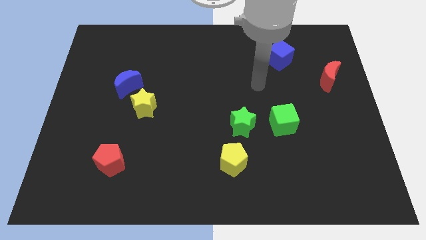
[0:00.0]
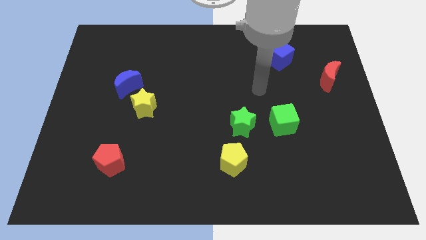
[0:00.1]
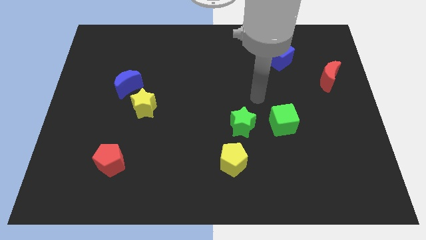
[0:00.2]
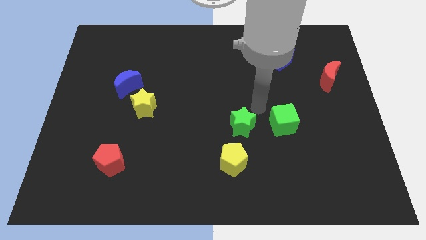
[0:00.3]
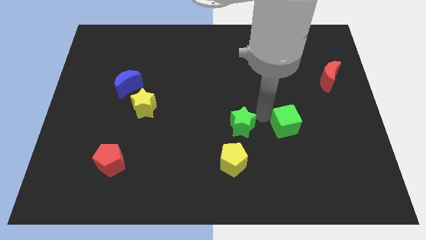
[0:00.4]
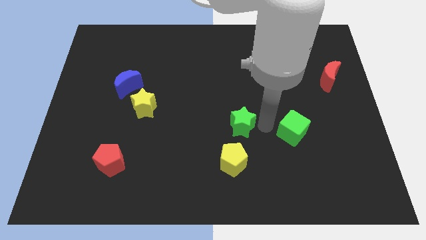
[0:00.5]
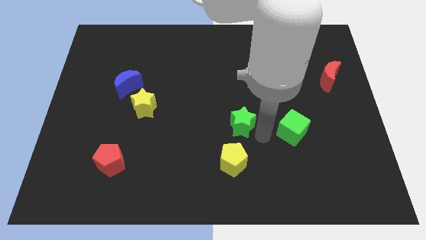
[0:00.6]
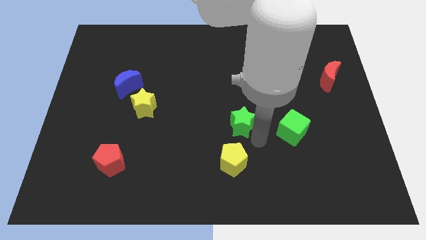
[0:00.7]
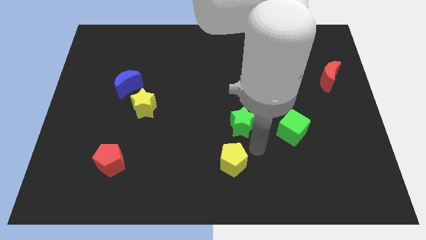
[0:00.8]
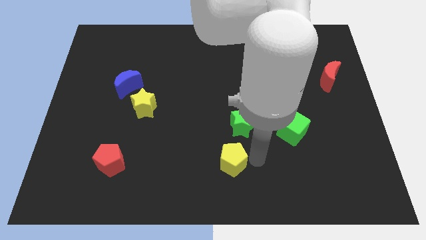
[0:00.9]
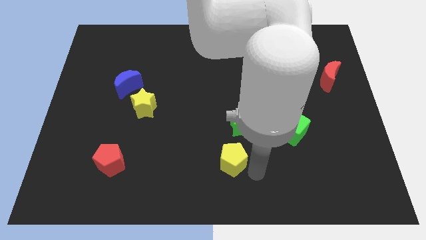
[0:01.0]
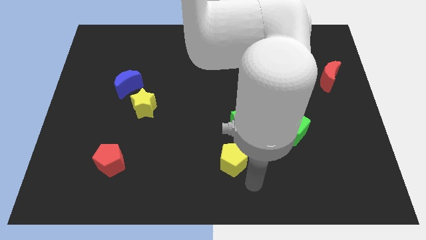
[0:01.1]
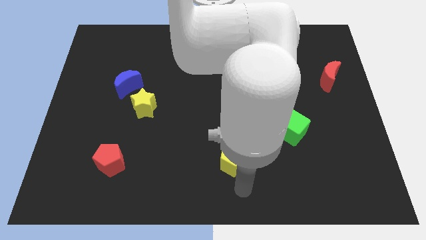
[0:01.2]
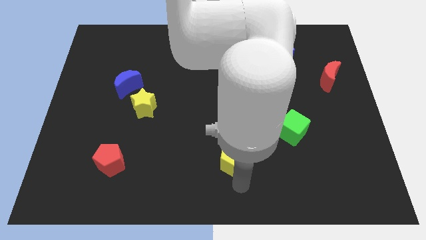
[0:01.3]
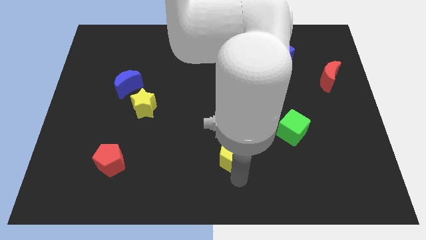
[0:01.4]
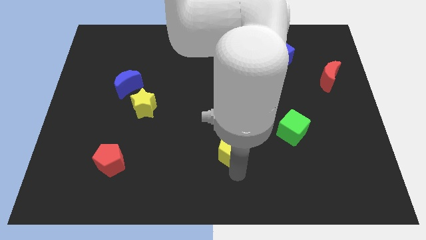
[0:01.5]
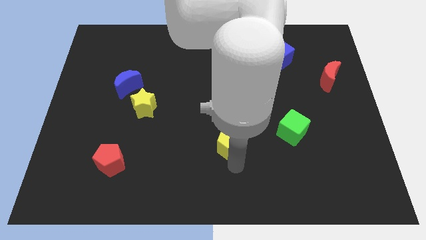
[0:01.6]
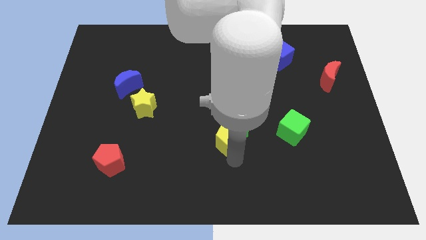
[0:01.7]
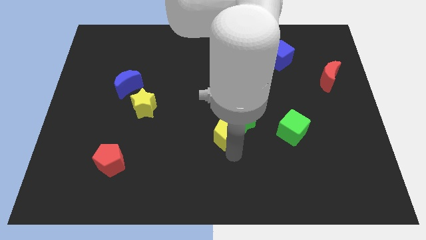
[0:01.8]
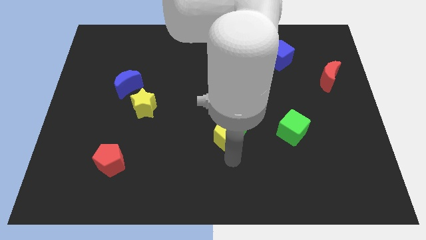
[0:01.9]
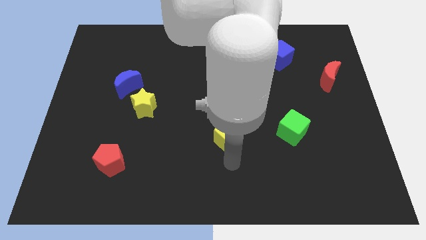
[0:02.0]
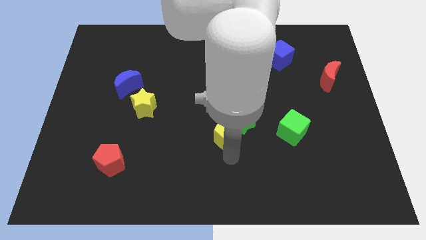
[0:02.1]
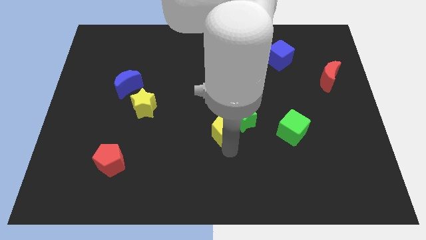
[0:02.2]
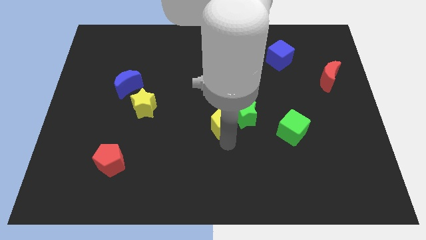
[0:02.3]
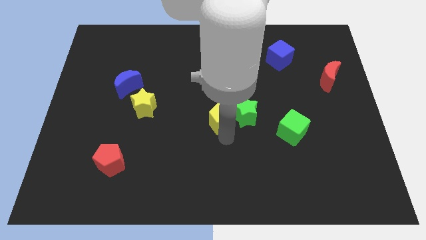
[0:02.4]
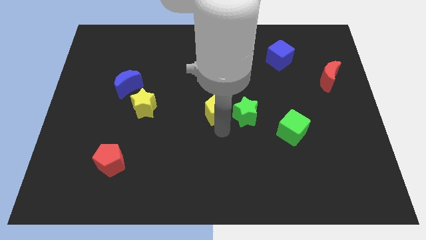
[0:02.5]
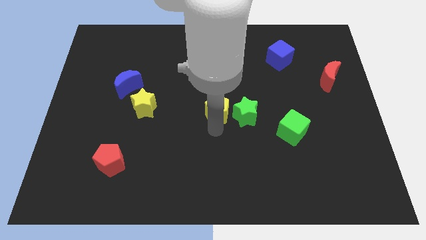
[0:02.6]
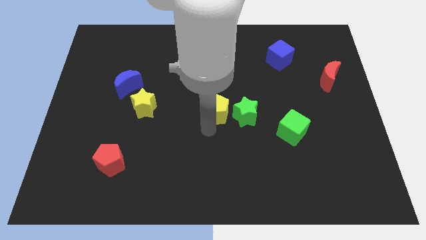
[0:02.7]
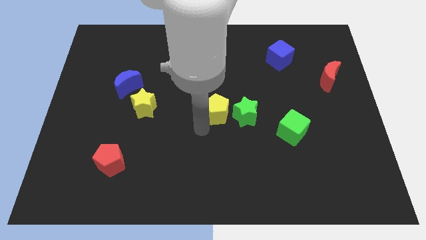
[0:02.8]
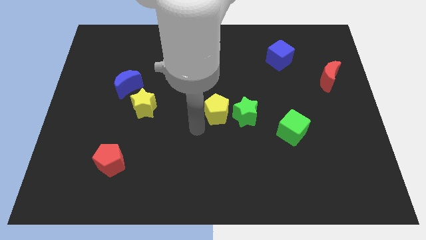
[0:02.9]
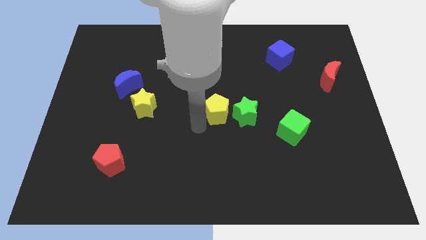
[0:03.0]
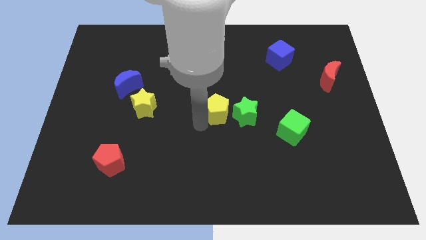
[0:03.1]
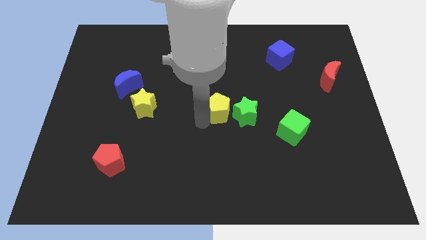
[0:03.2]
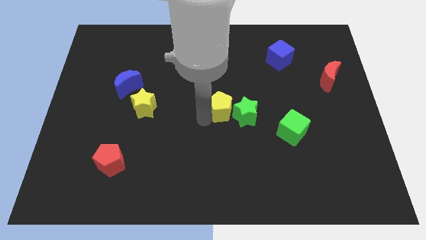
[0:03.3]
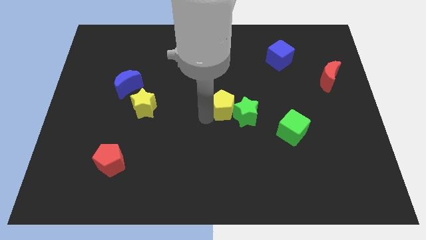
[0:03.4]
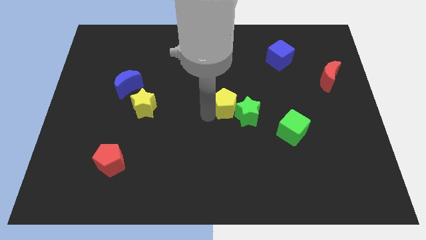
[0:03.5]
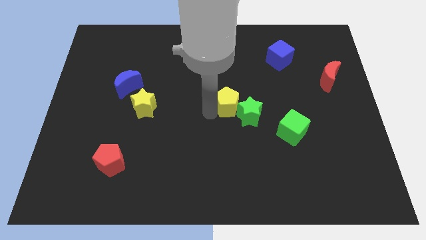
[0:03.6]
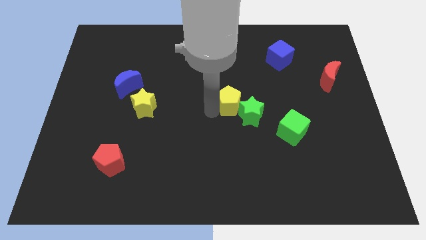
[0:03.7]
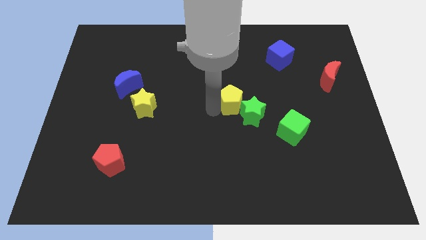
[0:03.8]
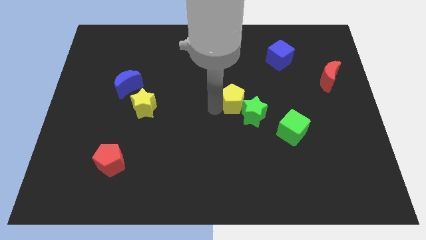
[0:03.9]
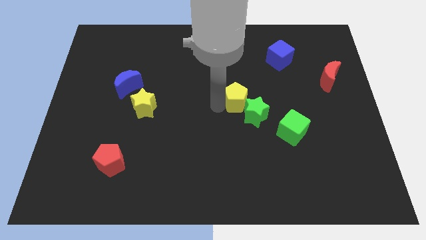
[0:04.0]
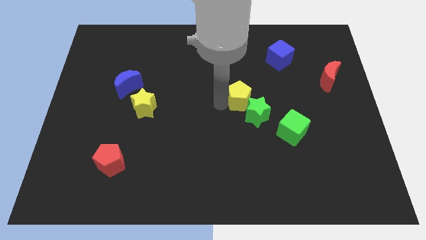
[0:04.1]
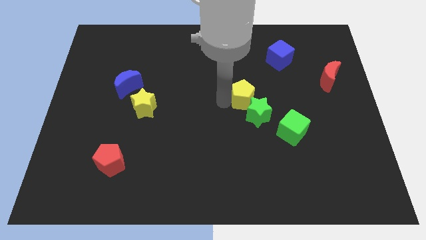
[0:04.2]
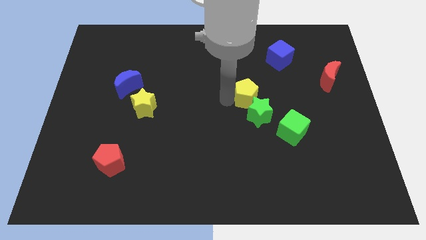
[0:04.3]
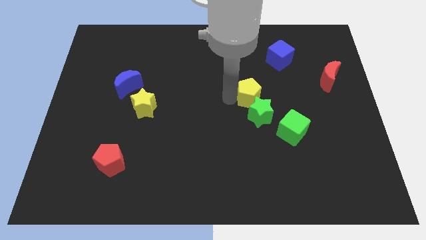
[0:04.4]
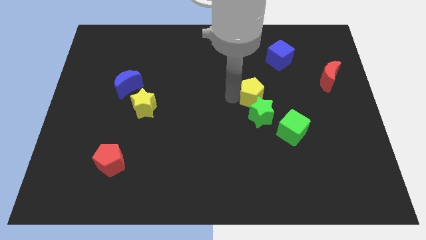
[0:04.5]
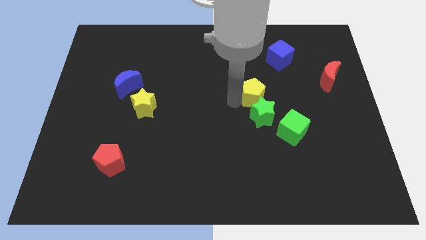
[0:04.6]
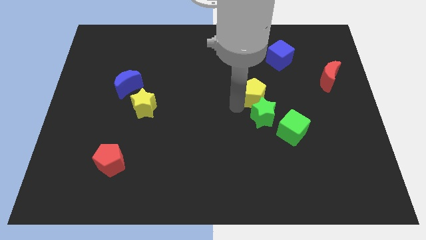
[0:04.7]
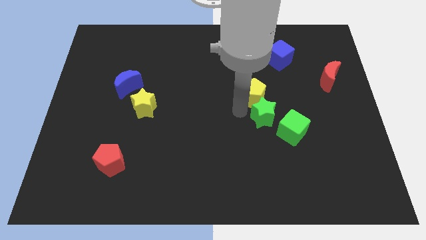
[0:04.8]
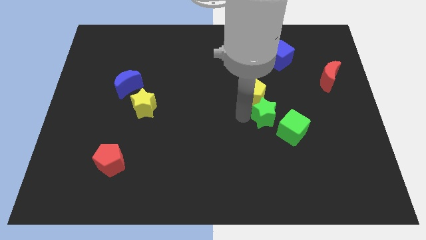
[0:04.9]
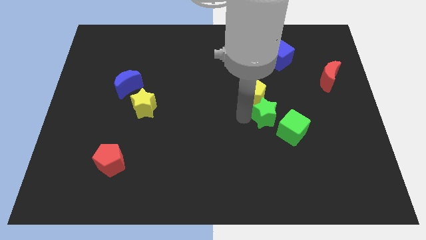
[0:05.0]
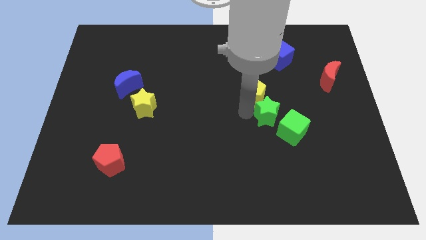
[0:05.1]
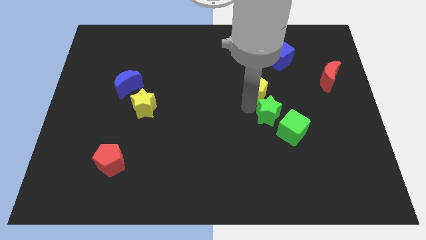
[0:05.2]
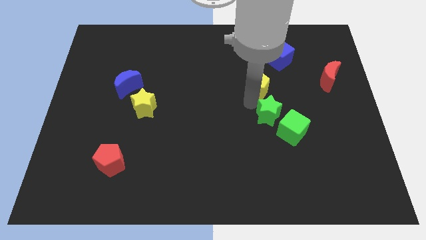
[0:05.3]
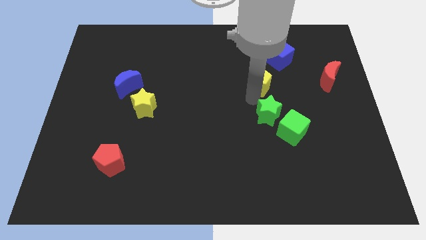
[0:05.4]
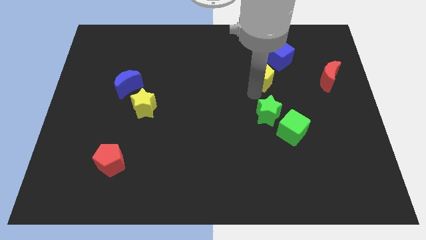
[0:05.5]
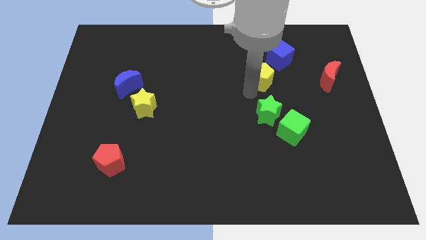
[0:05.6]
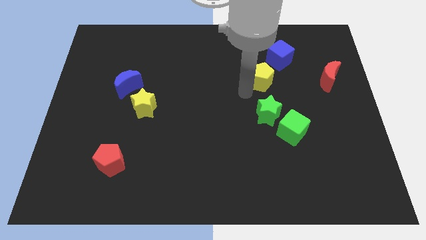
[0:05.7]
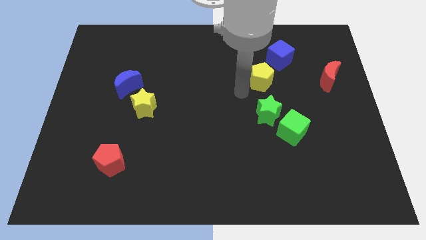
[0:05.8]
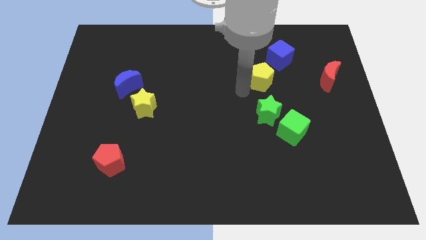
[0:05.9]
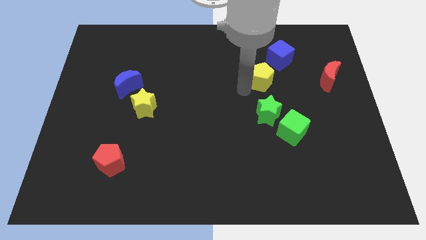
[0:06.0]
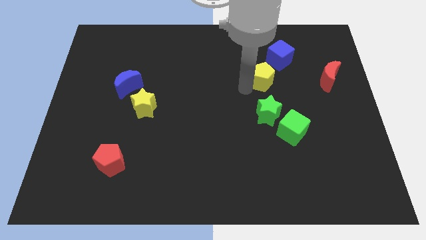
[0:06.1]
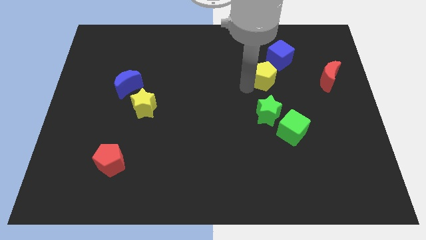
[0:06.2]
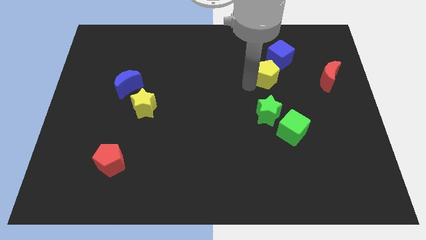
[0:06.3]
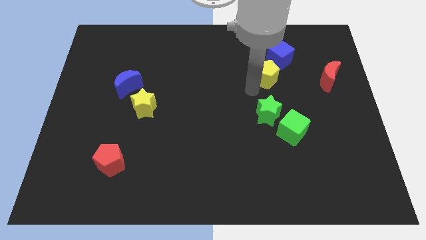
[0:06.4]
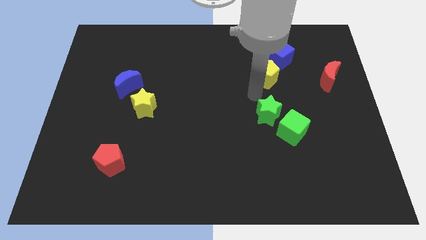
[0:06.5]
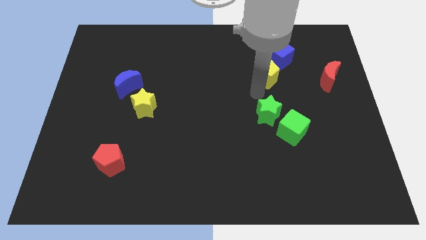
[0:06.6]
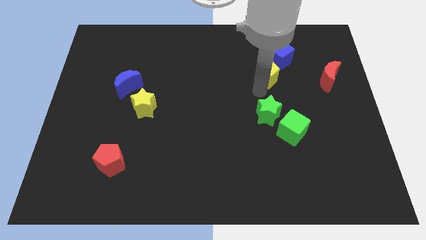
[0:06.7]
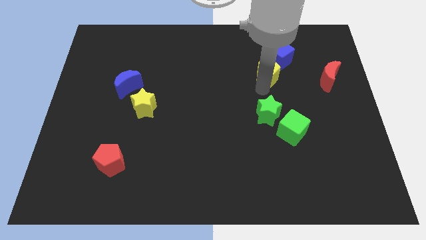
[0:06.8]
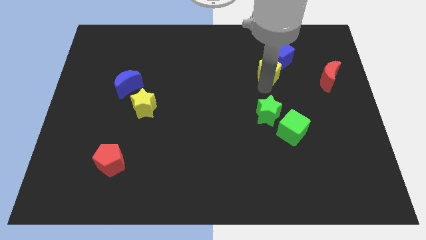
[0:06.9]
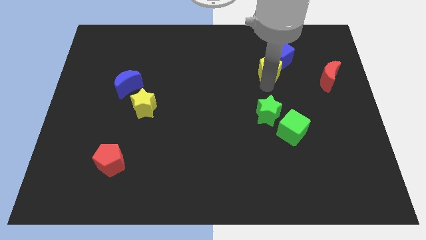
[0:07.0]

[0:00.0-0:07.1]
push the yellow pentagon to the blue cube
